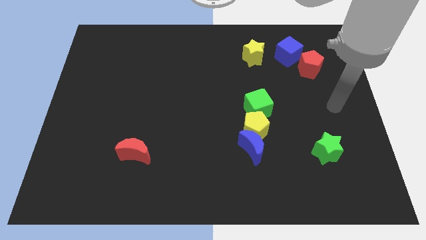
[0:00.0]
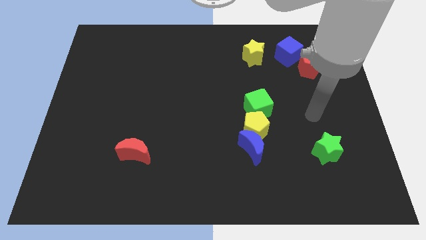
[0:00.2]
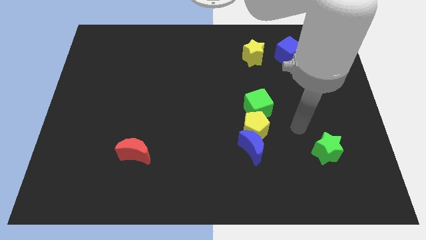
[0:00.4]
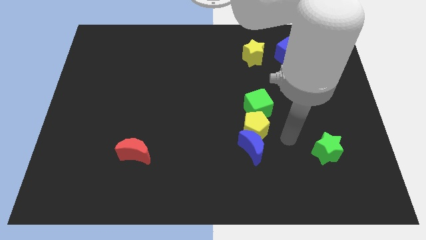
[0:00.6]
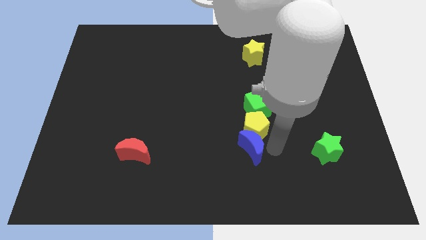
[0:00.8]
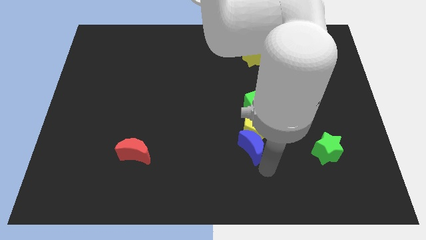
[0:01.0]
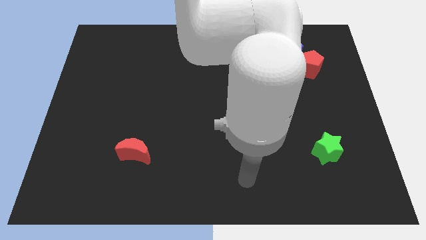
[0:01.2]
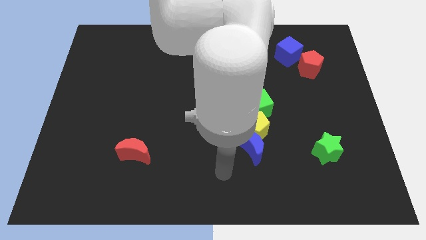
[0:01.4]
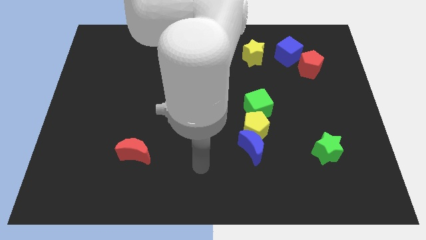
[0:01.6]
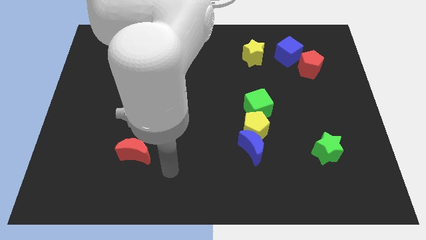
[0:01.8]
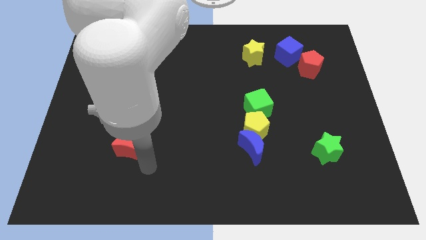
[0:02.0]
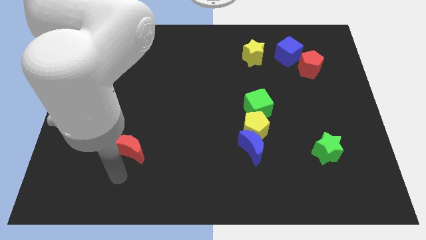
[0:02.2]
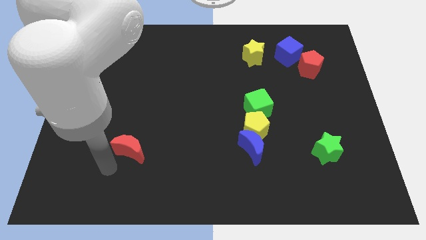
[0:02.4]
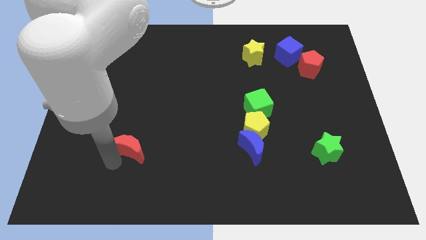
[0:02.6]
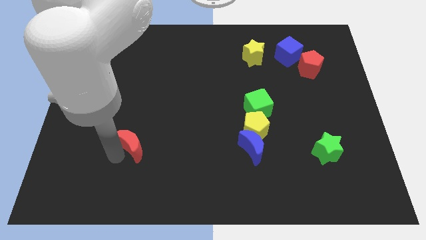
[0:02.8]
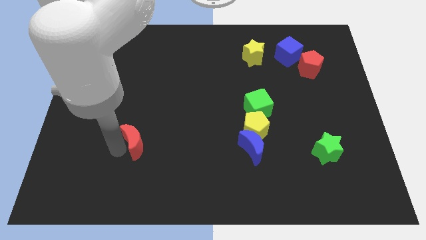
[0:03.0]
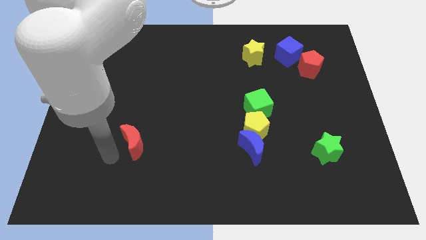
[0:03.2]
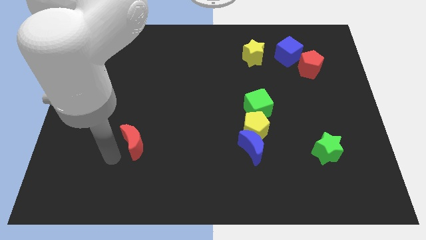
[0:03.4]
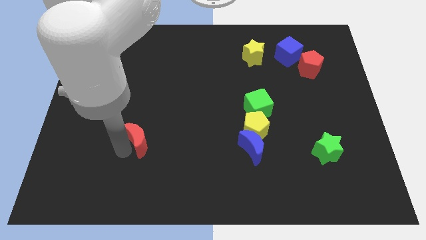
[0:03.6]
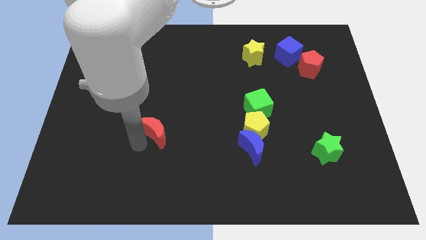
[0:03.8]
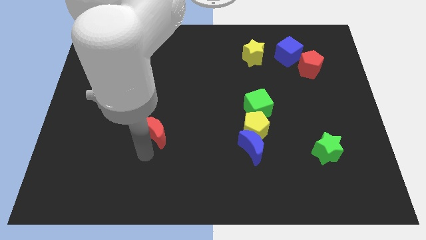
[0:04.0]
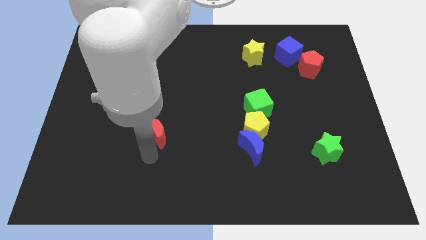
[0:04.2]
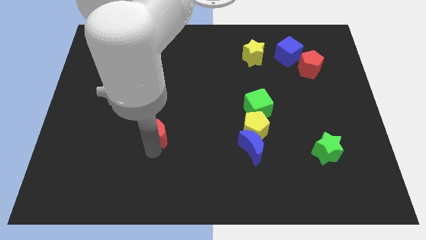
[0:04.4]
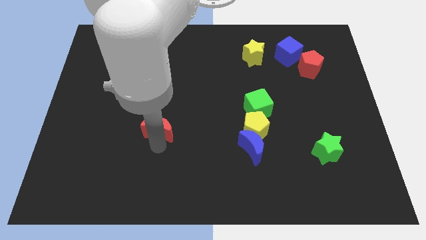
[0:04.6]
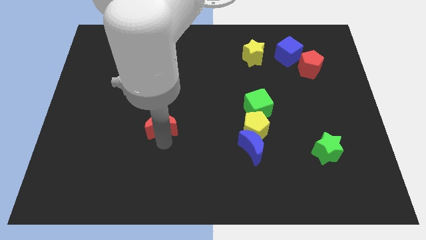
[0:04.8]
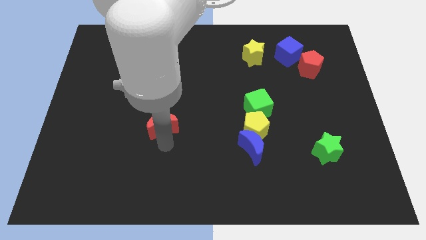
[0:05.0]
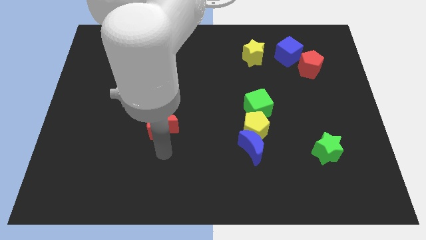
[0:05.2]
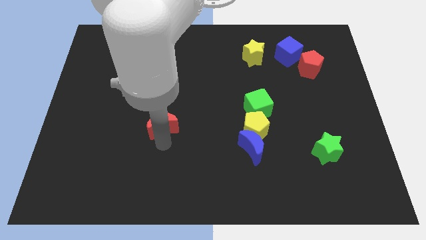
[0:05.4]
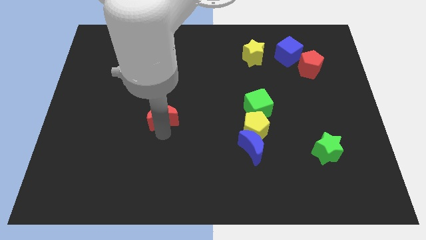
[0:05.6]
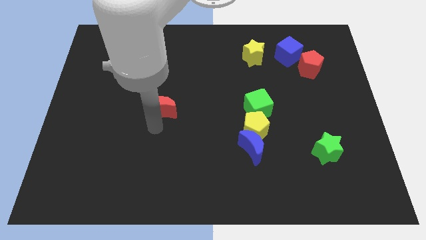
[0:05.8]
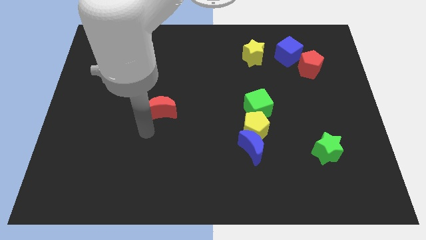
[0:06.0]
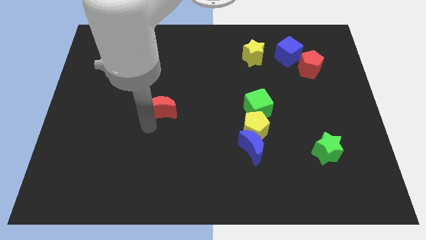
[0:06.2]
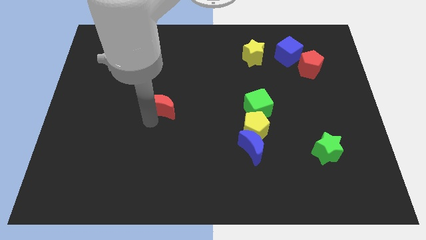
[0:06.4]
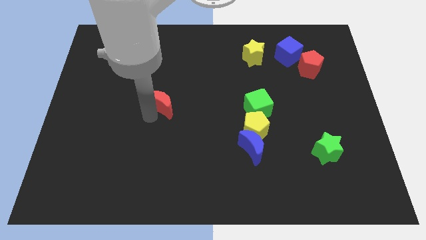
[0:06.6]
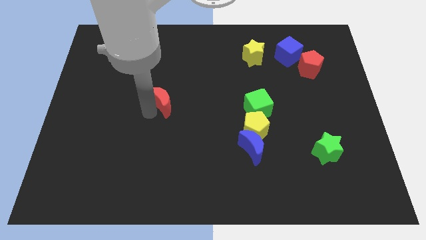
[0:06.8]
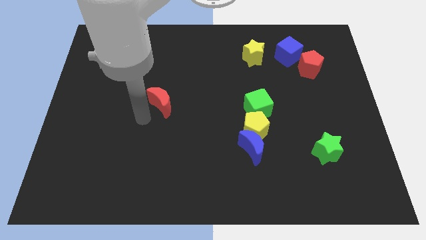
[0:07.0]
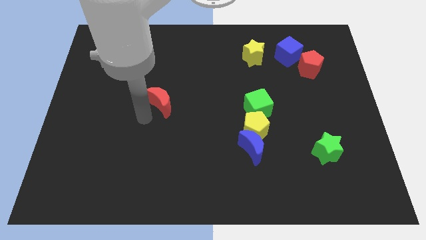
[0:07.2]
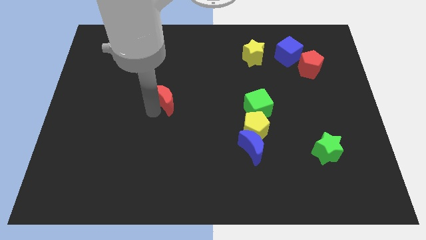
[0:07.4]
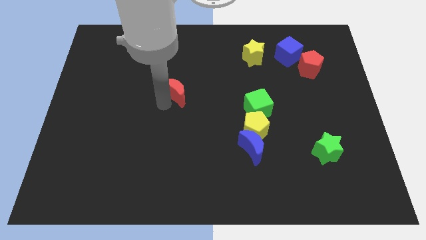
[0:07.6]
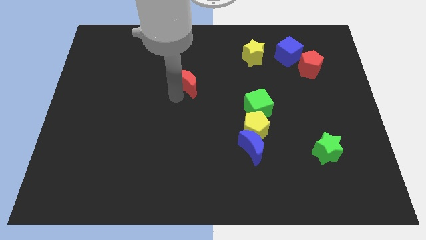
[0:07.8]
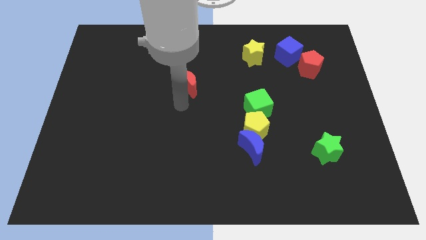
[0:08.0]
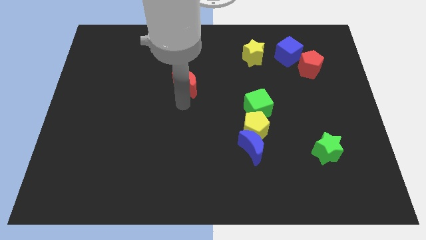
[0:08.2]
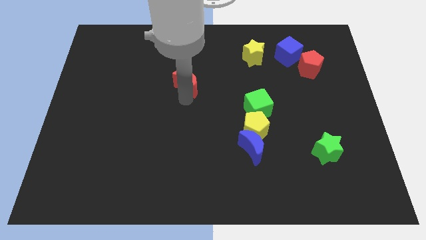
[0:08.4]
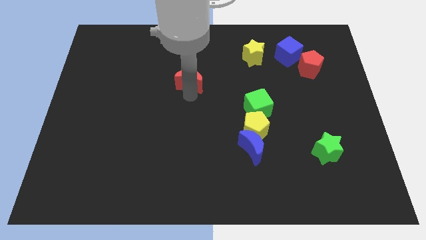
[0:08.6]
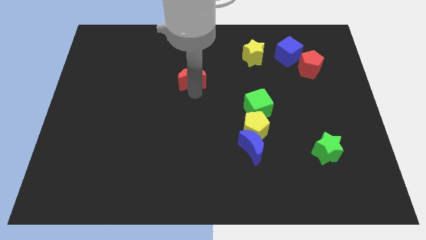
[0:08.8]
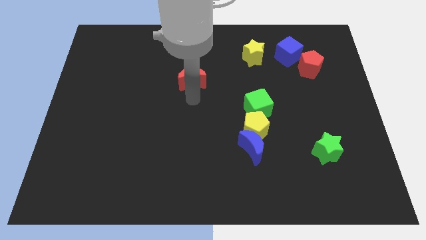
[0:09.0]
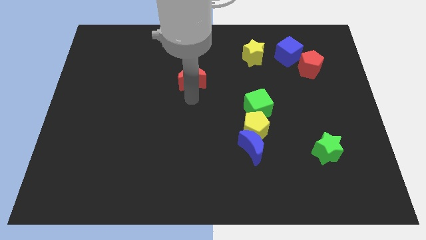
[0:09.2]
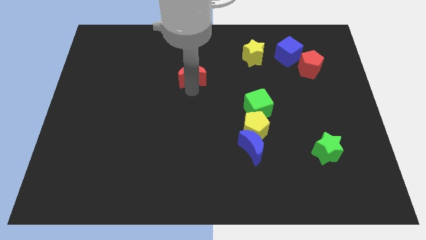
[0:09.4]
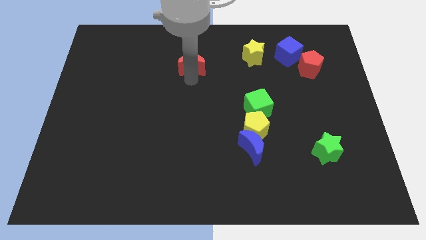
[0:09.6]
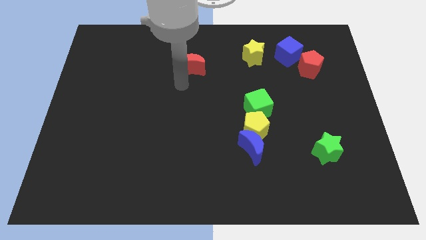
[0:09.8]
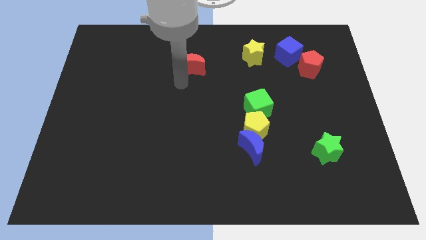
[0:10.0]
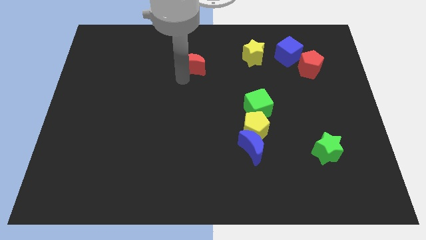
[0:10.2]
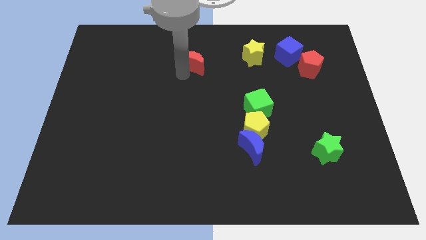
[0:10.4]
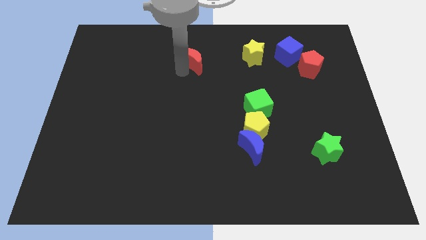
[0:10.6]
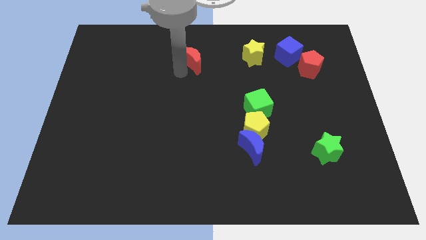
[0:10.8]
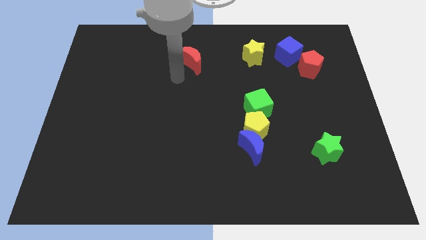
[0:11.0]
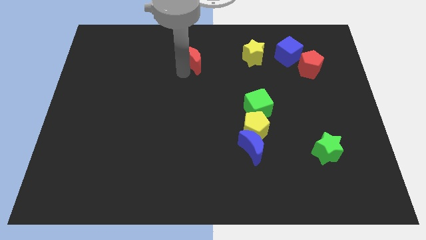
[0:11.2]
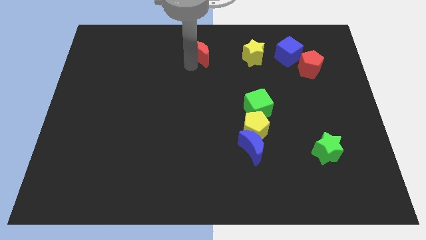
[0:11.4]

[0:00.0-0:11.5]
put the red moon to the top side
